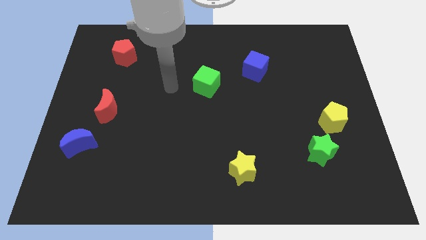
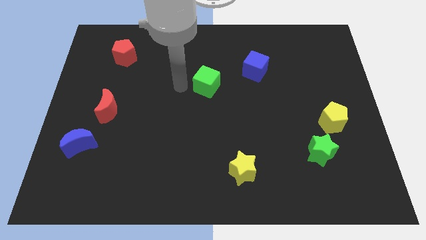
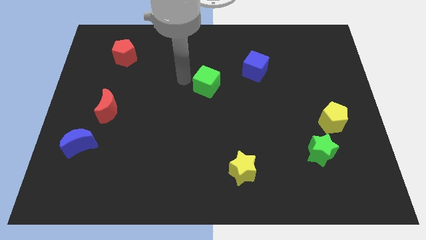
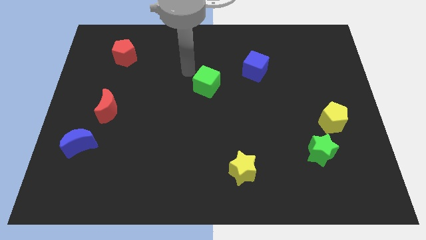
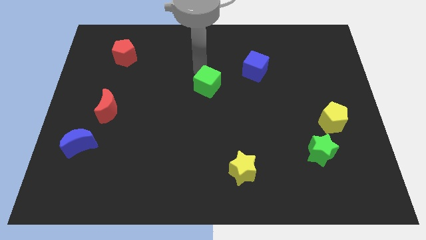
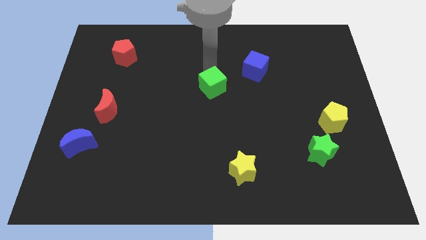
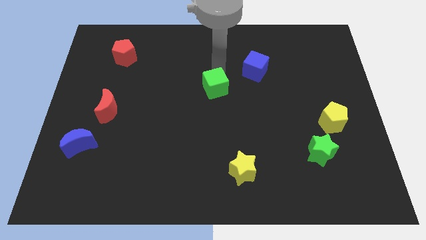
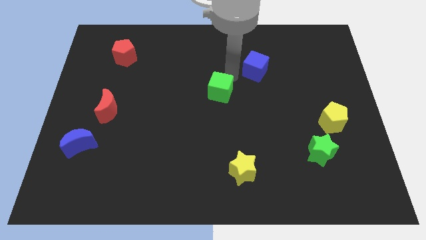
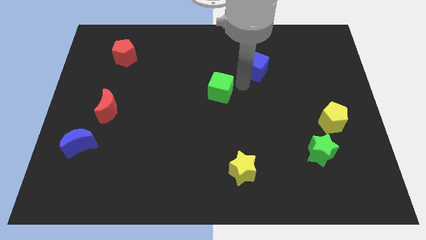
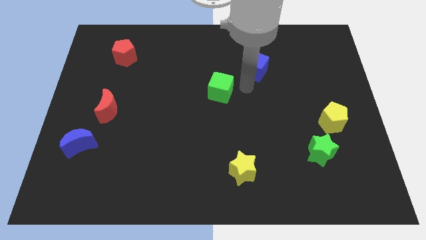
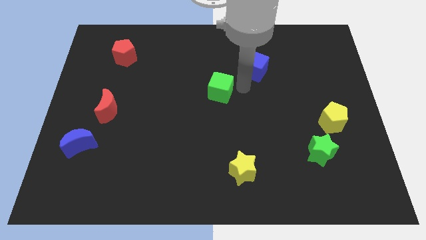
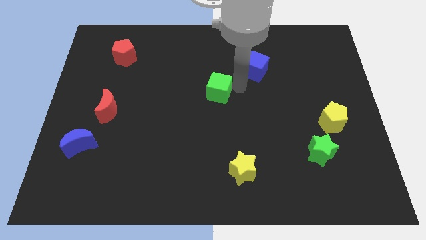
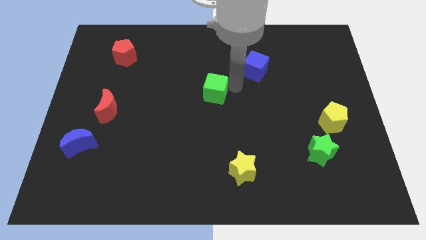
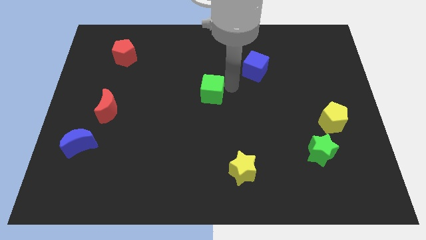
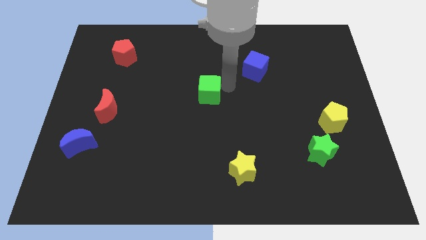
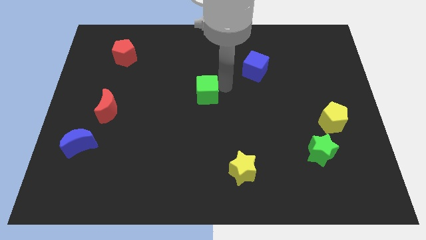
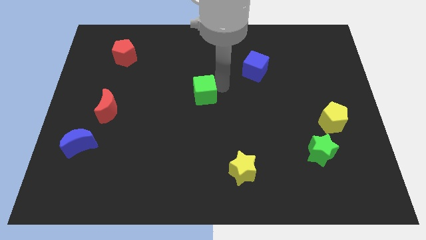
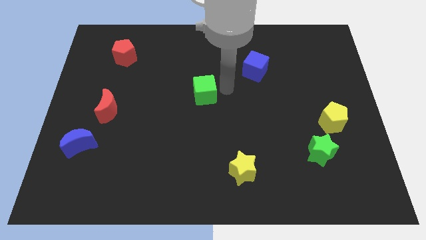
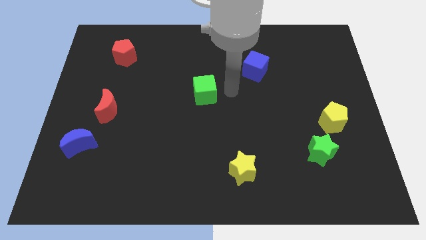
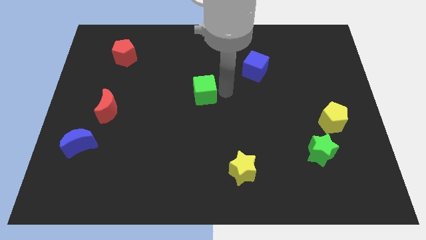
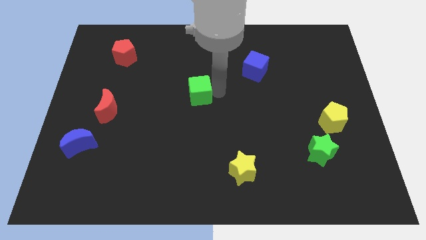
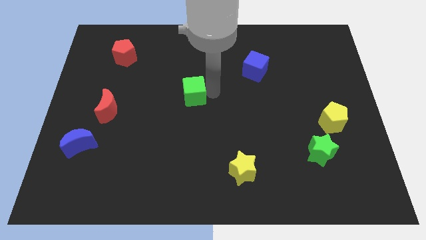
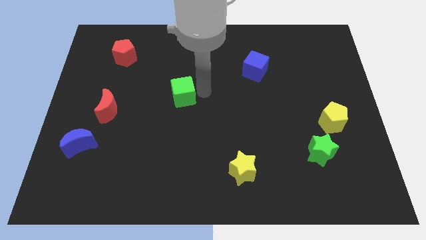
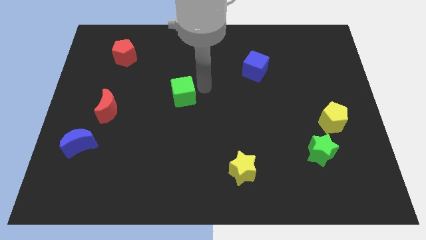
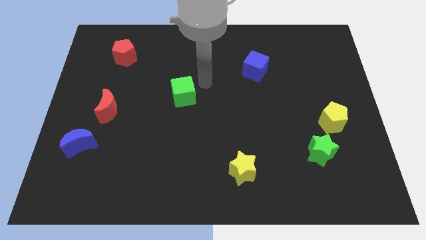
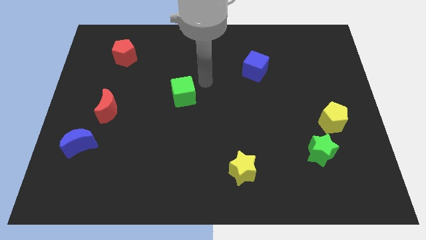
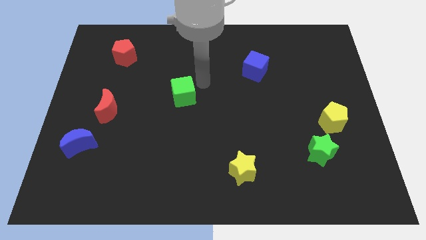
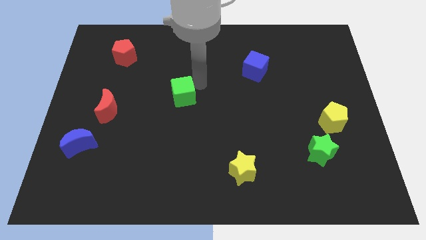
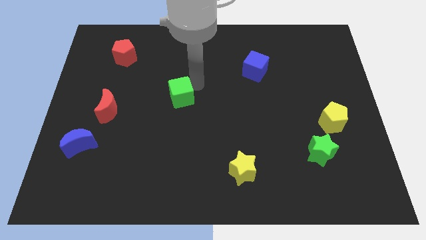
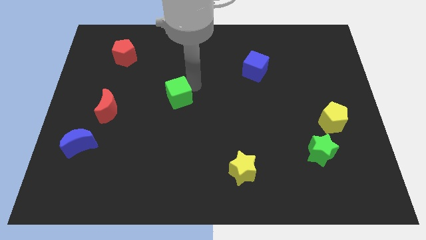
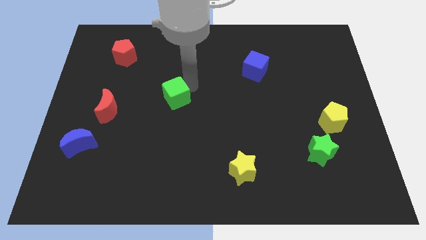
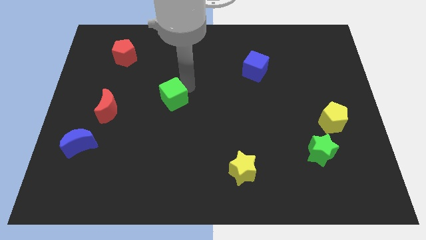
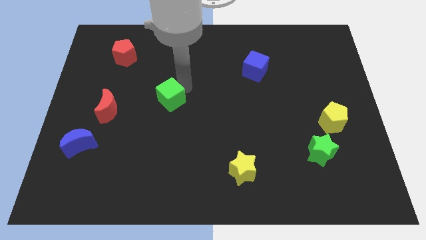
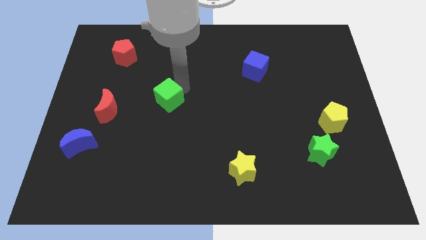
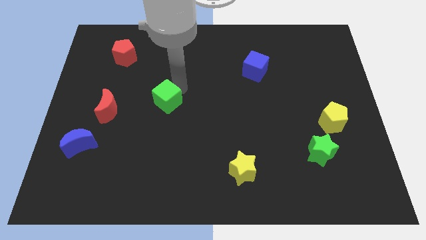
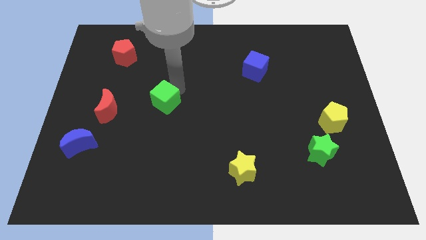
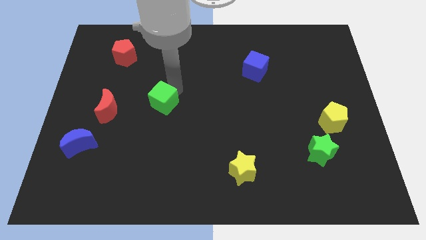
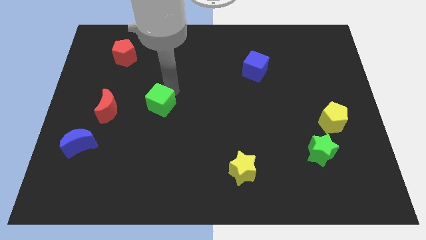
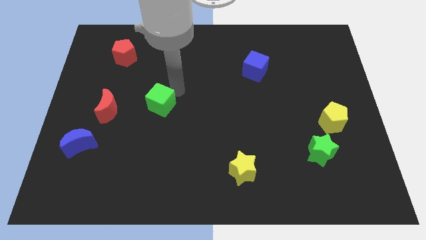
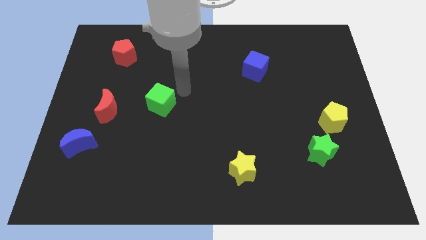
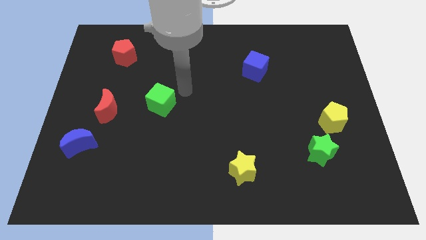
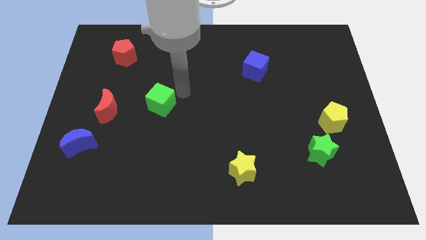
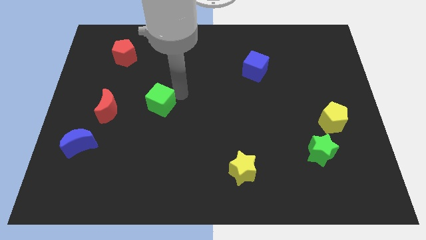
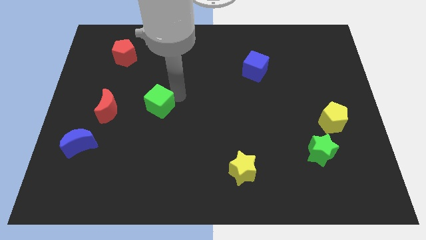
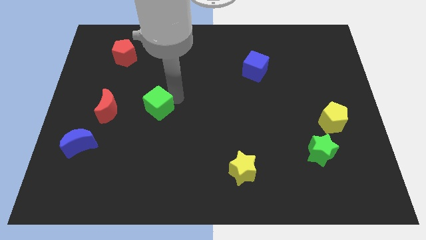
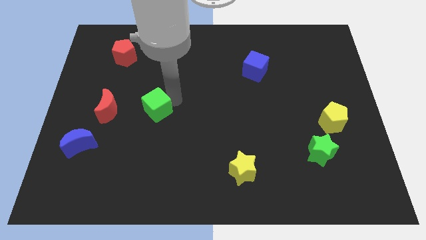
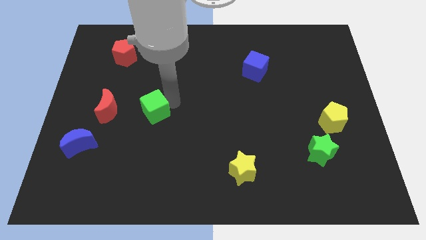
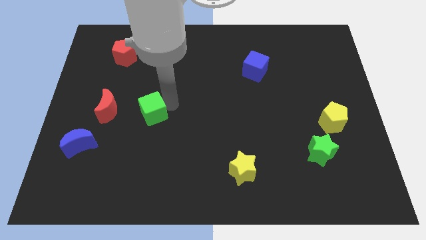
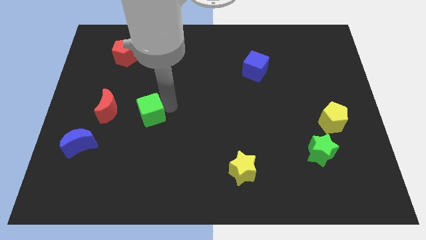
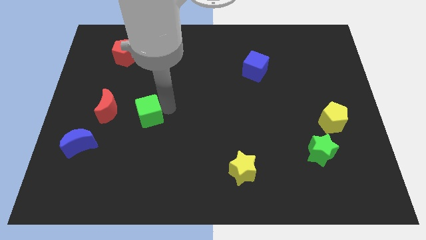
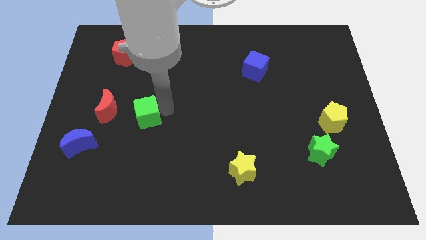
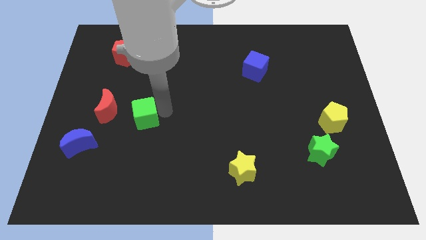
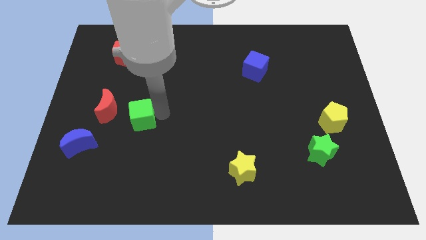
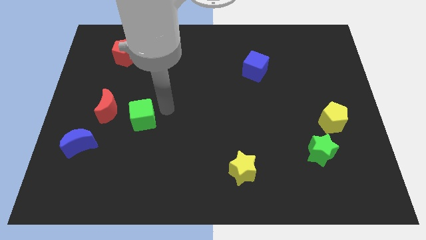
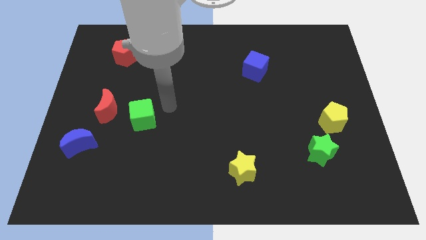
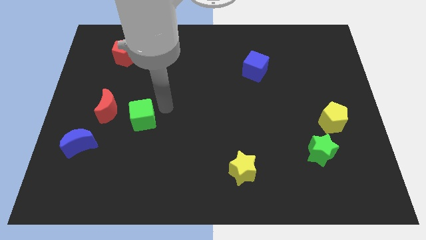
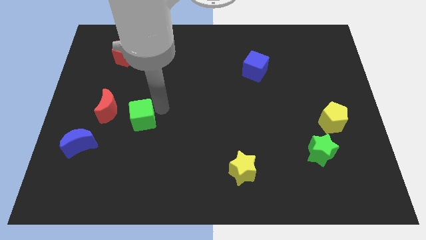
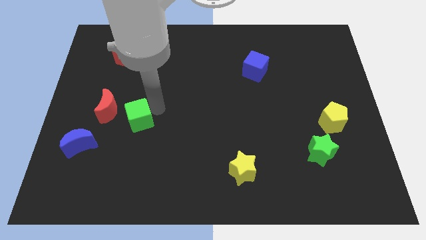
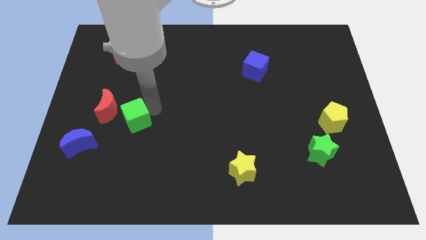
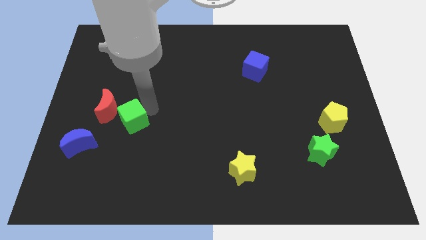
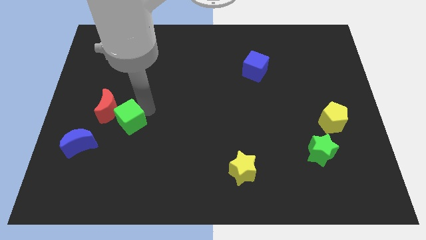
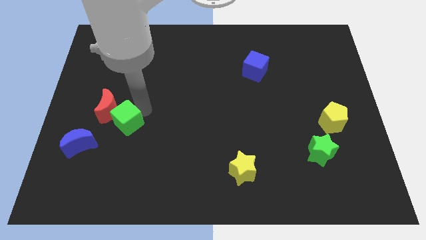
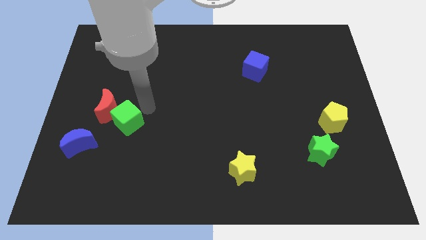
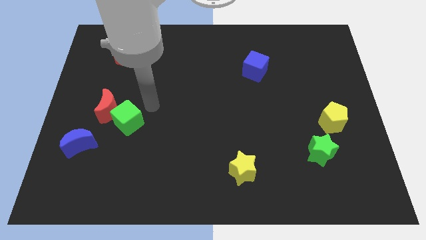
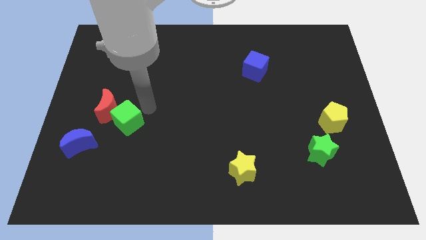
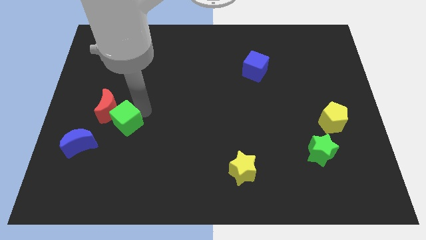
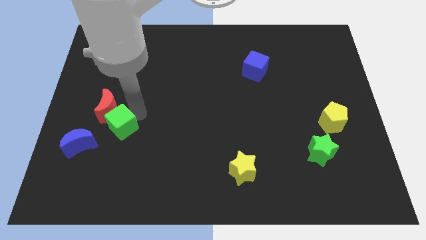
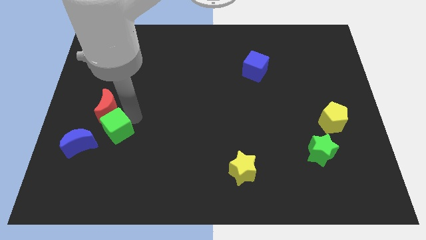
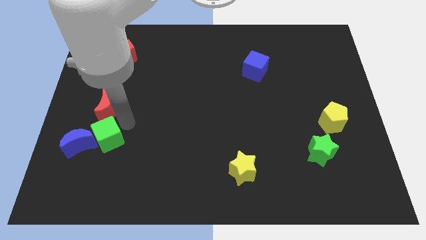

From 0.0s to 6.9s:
push the green cube towards the blue moon
